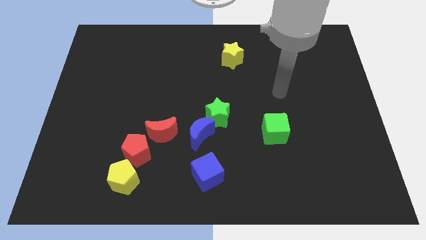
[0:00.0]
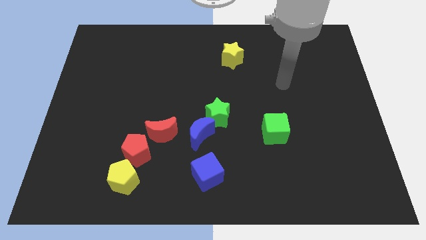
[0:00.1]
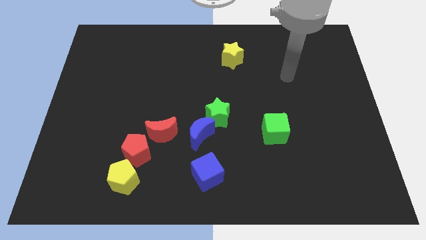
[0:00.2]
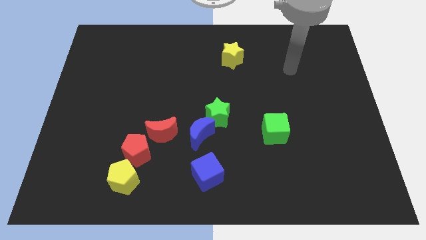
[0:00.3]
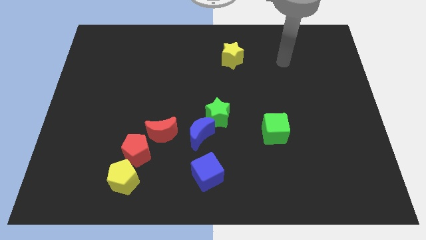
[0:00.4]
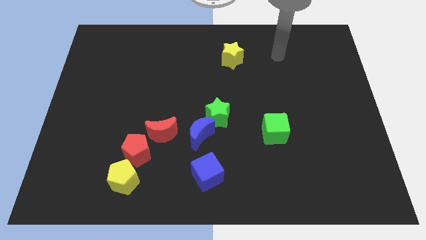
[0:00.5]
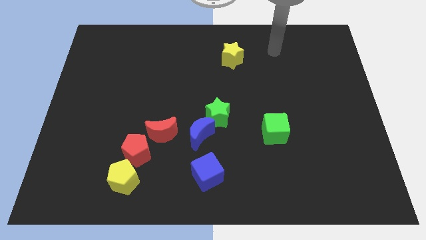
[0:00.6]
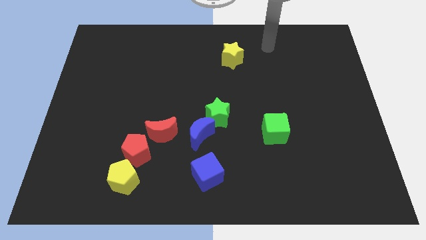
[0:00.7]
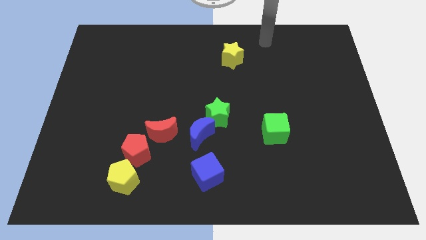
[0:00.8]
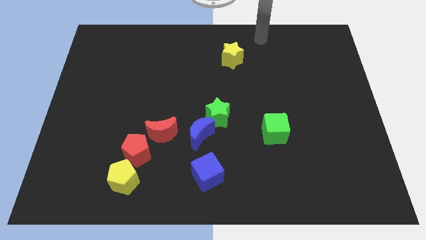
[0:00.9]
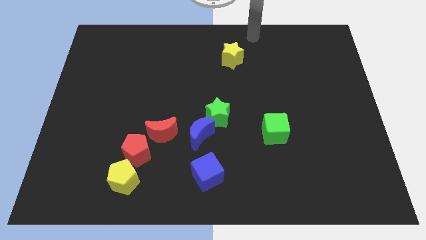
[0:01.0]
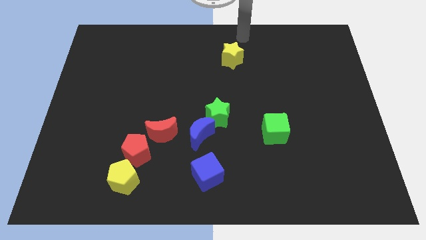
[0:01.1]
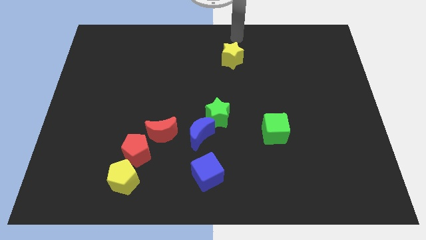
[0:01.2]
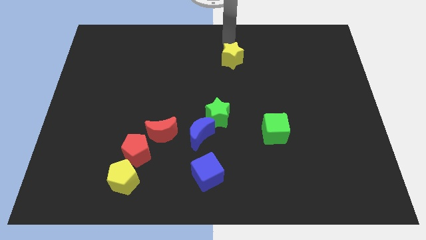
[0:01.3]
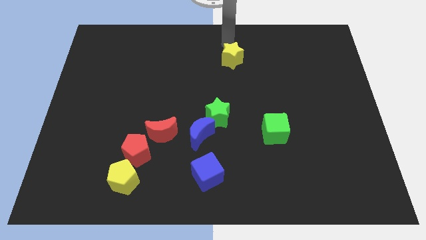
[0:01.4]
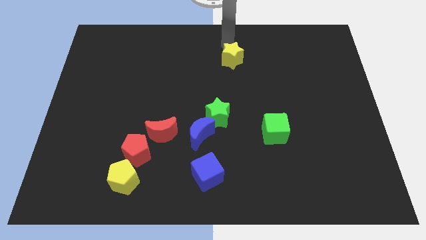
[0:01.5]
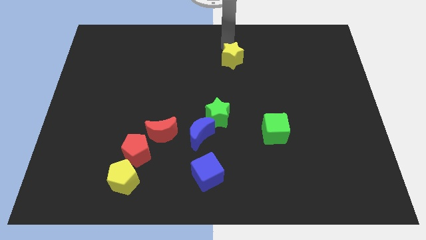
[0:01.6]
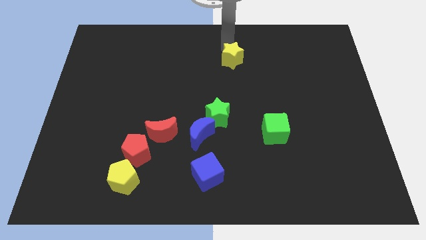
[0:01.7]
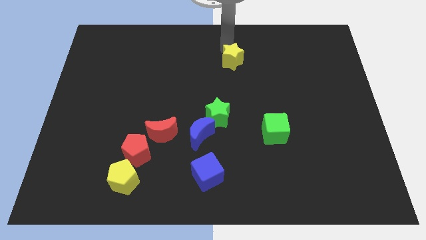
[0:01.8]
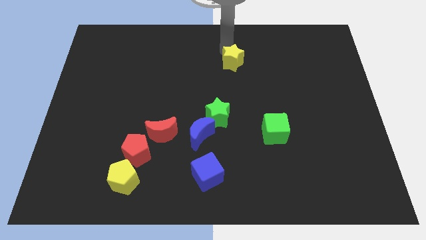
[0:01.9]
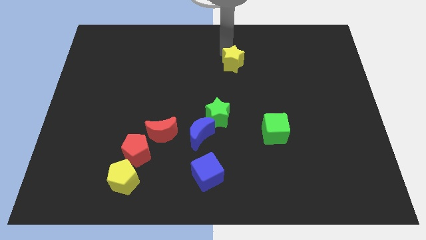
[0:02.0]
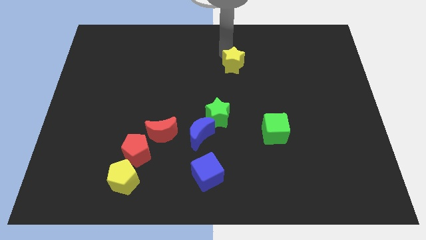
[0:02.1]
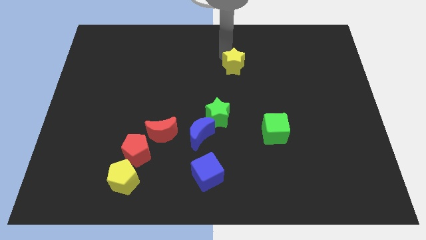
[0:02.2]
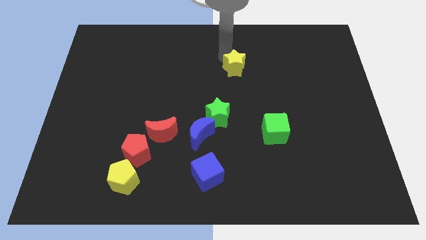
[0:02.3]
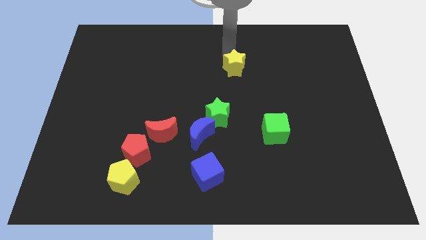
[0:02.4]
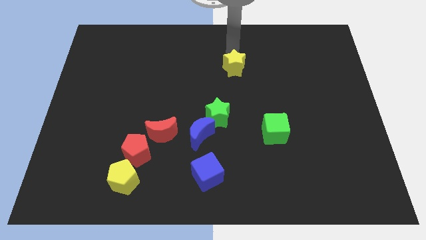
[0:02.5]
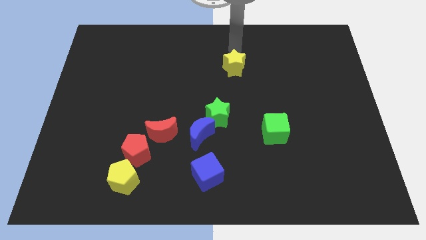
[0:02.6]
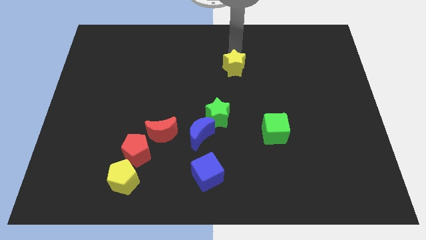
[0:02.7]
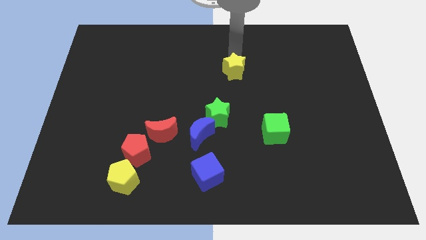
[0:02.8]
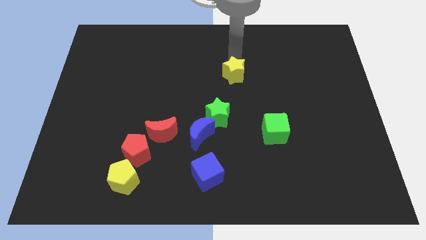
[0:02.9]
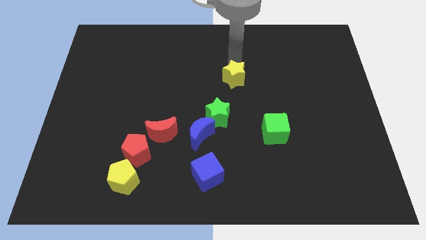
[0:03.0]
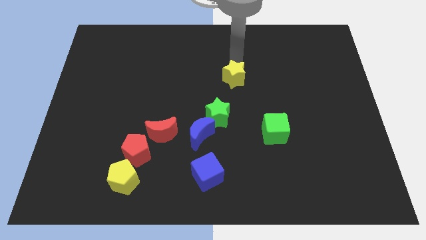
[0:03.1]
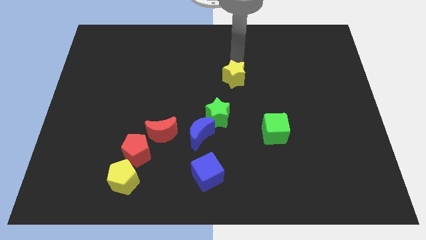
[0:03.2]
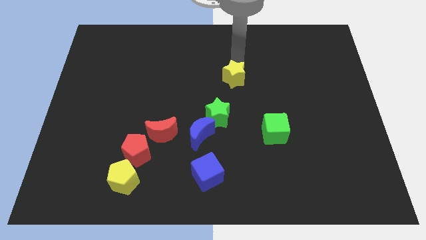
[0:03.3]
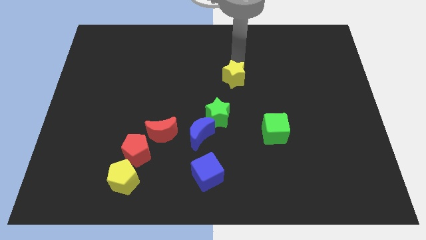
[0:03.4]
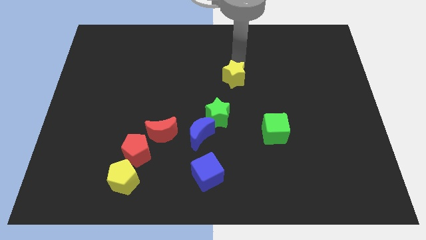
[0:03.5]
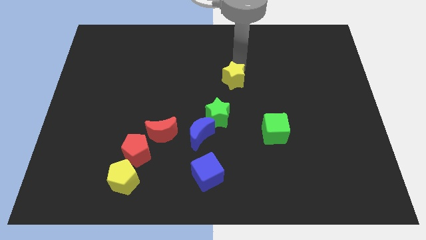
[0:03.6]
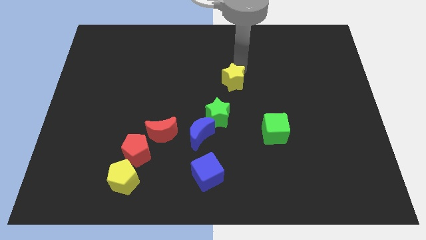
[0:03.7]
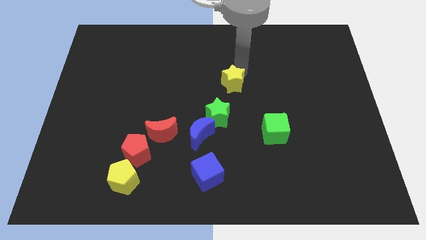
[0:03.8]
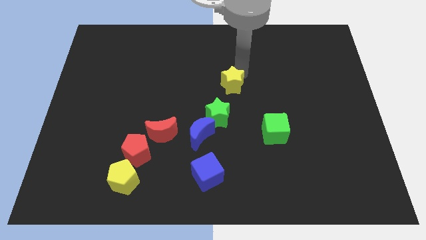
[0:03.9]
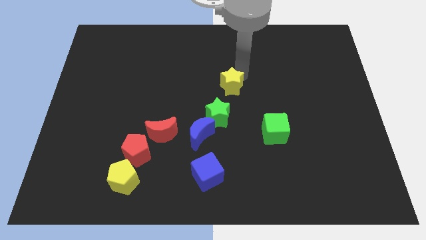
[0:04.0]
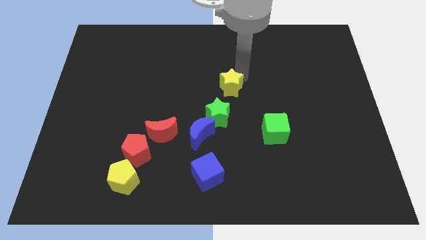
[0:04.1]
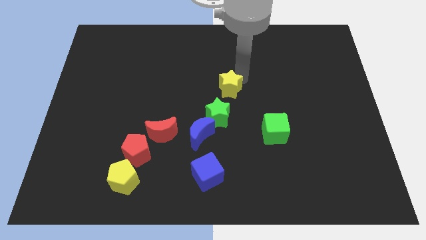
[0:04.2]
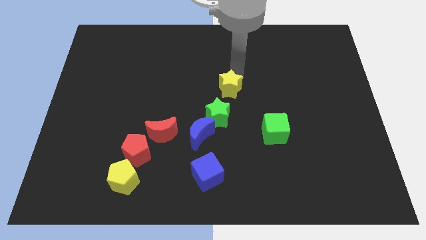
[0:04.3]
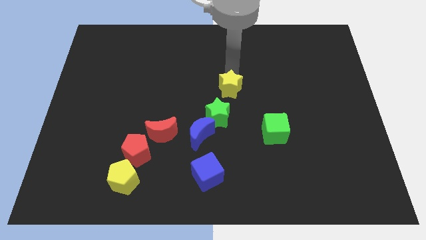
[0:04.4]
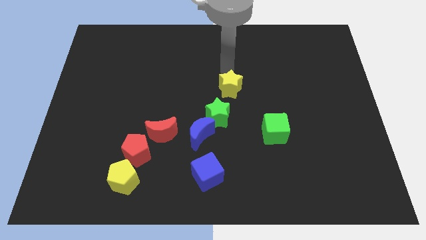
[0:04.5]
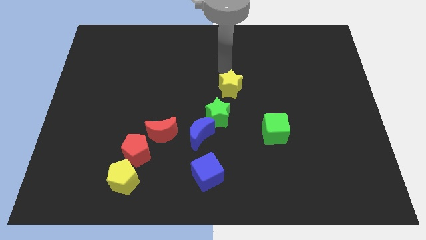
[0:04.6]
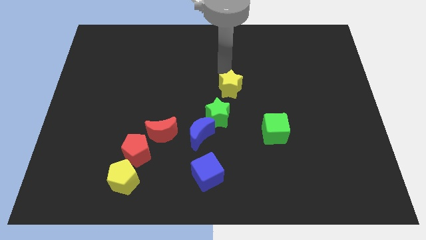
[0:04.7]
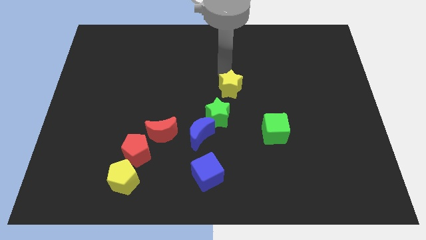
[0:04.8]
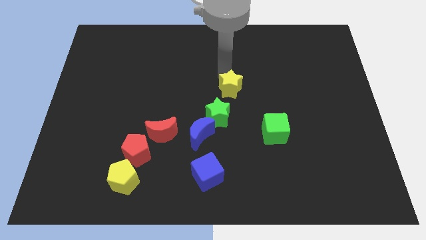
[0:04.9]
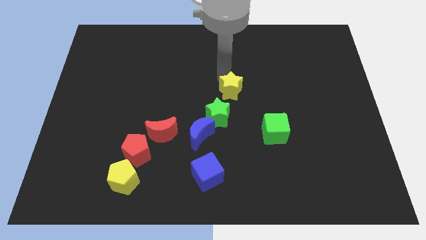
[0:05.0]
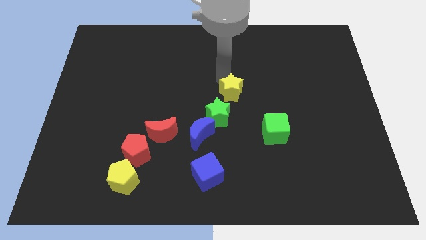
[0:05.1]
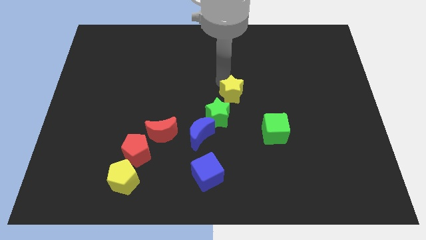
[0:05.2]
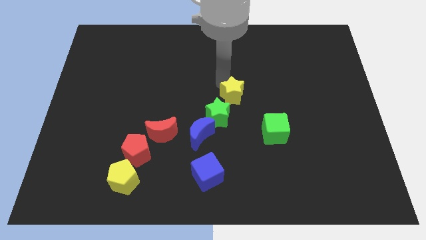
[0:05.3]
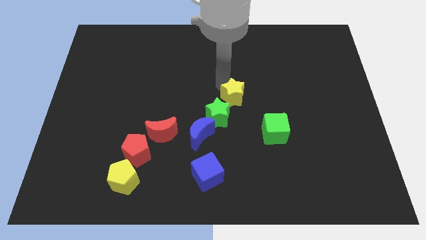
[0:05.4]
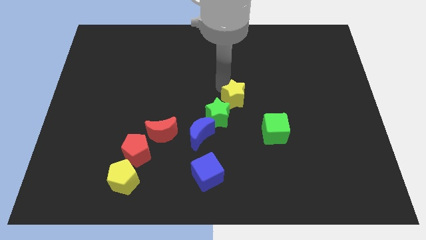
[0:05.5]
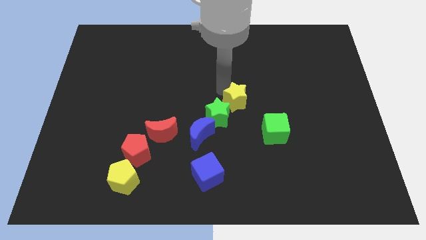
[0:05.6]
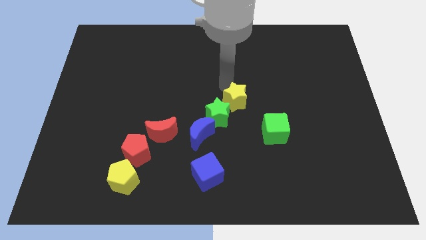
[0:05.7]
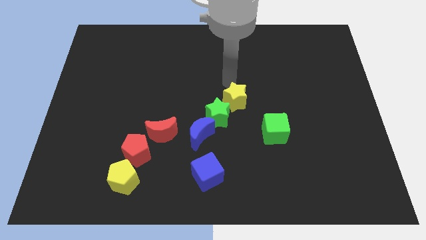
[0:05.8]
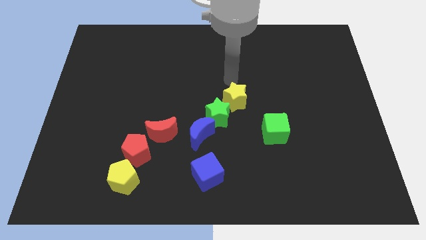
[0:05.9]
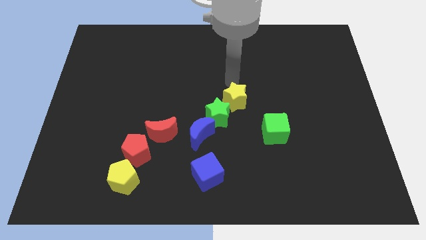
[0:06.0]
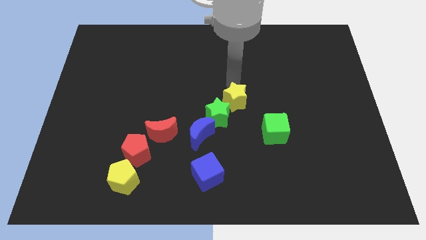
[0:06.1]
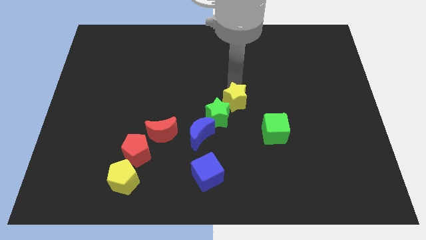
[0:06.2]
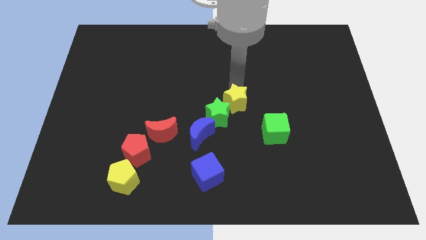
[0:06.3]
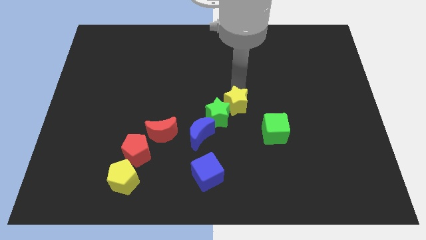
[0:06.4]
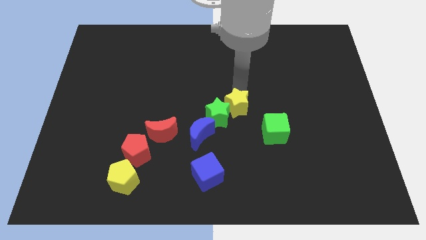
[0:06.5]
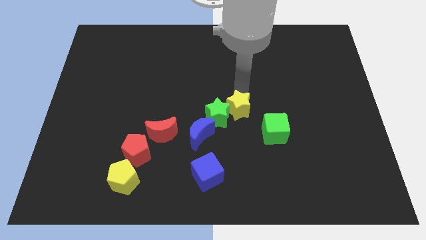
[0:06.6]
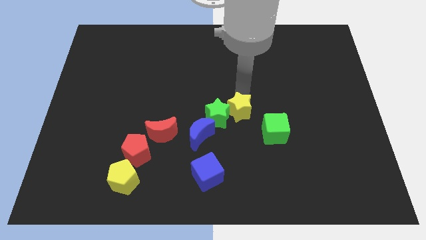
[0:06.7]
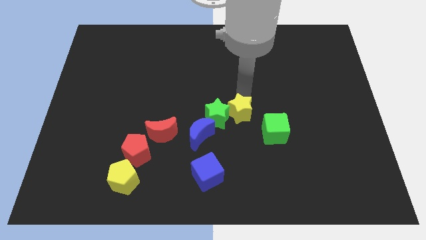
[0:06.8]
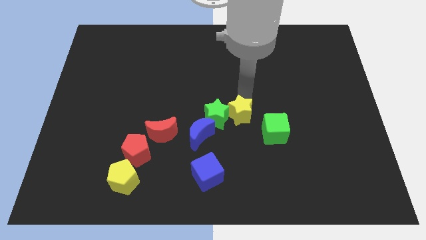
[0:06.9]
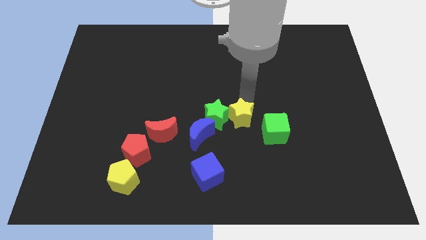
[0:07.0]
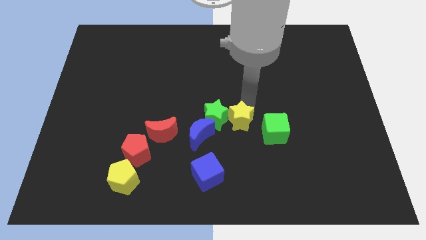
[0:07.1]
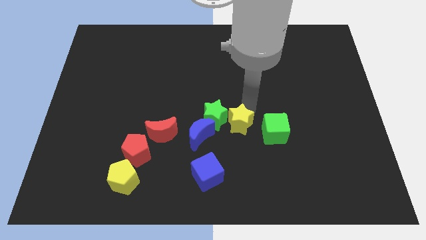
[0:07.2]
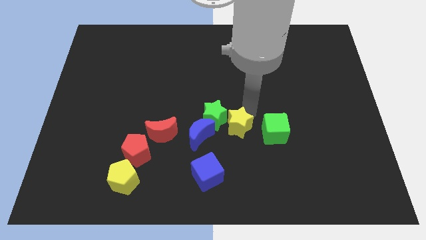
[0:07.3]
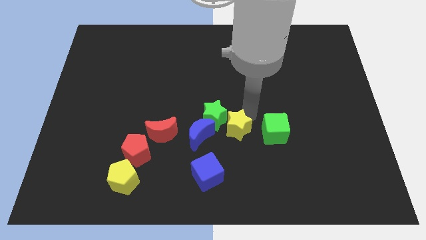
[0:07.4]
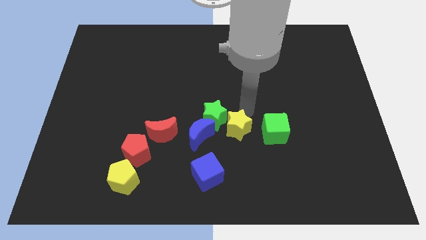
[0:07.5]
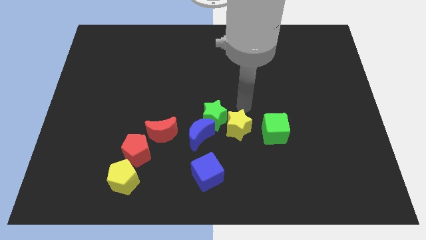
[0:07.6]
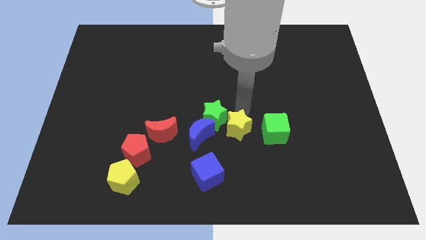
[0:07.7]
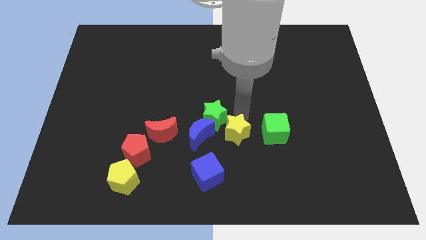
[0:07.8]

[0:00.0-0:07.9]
push the yellow star diagonally up and to the right of the blue cube
